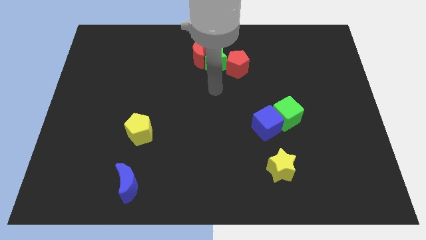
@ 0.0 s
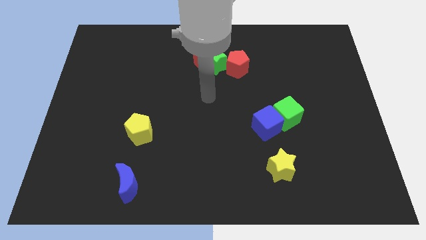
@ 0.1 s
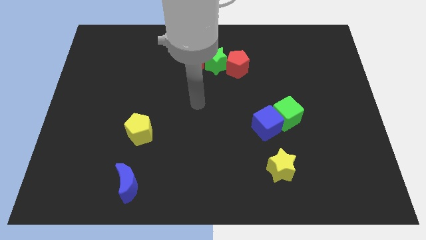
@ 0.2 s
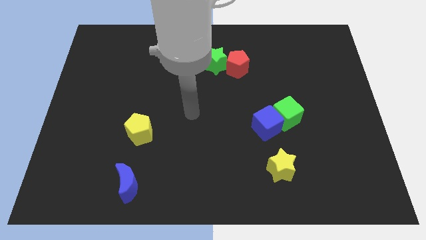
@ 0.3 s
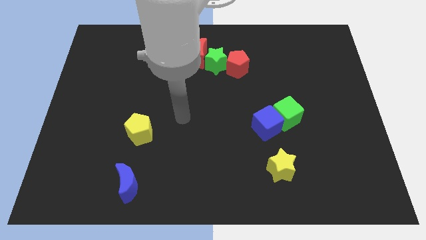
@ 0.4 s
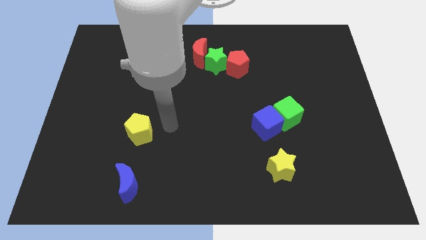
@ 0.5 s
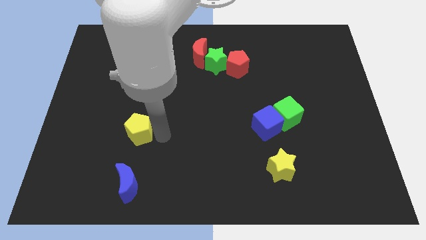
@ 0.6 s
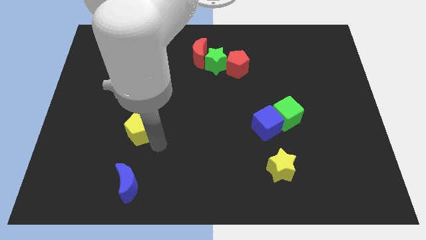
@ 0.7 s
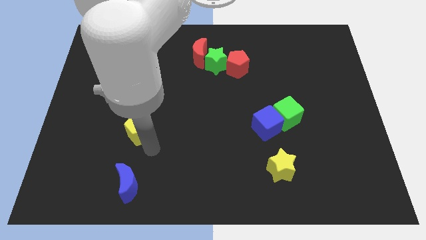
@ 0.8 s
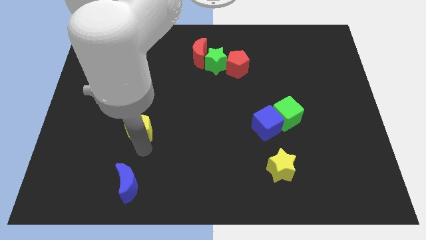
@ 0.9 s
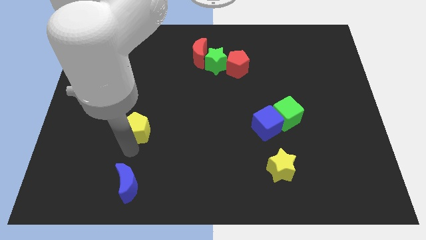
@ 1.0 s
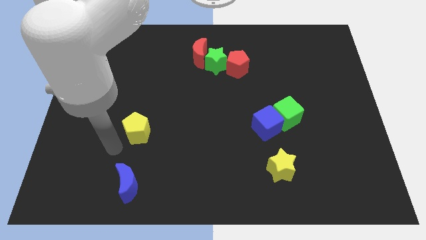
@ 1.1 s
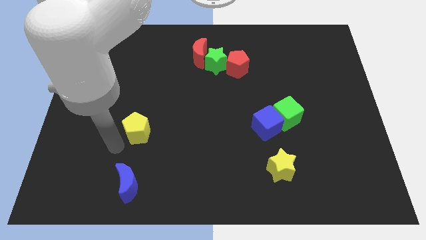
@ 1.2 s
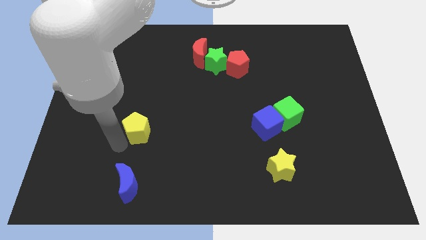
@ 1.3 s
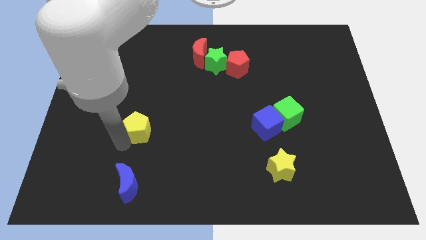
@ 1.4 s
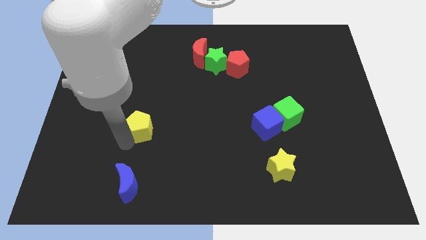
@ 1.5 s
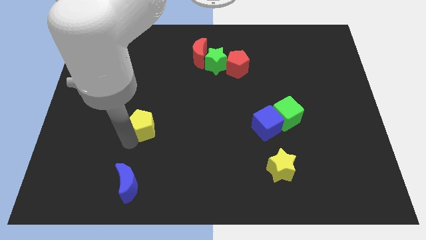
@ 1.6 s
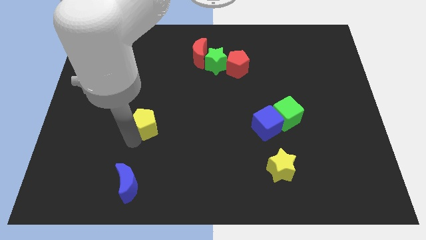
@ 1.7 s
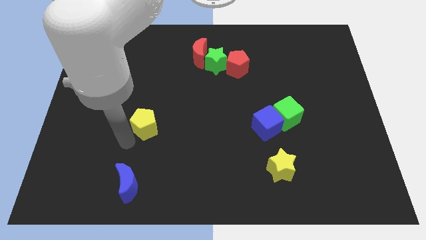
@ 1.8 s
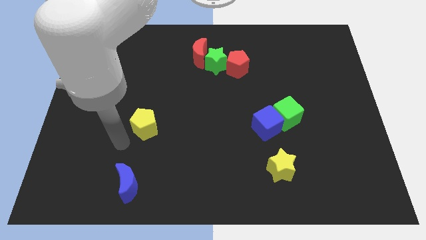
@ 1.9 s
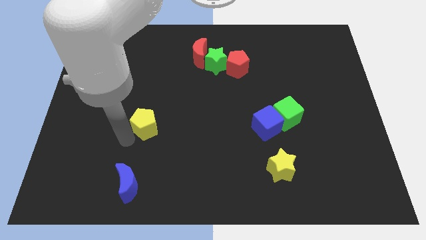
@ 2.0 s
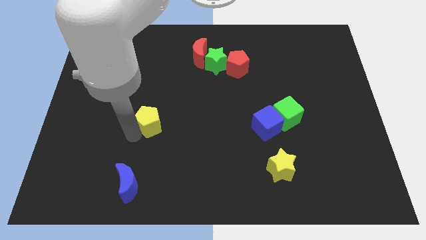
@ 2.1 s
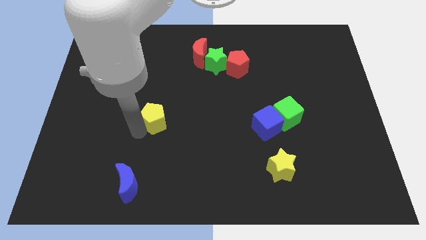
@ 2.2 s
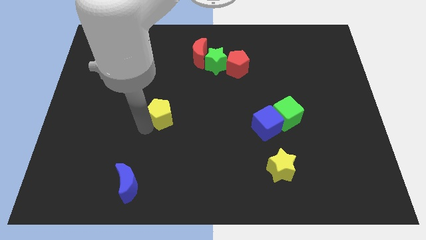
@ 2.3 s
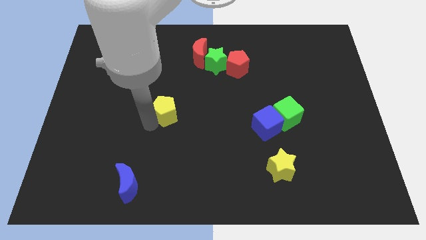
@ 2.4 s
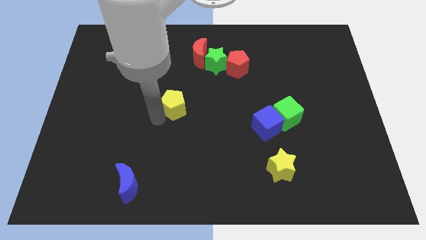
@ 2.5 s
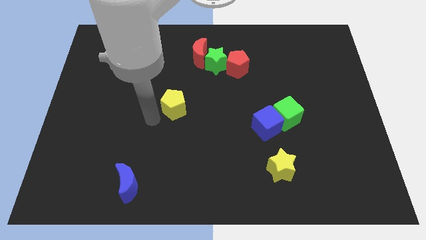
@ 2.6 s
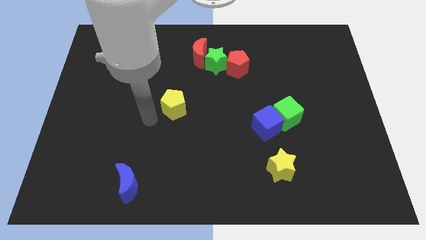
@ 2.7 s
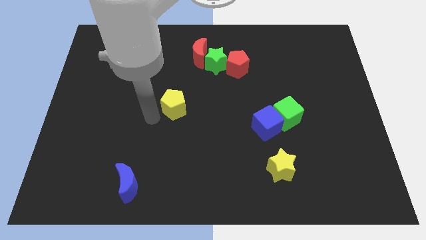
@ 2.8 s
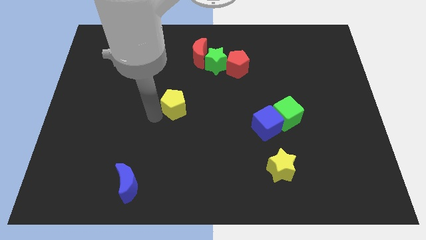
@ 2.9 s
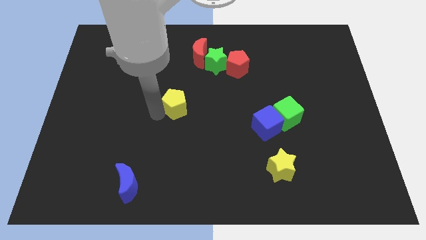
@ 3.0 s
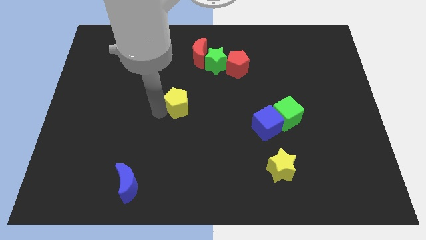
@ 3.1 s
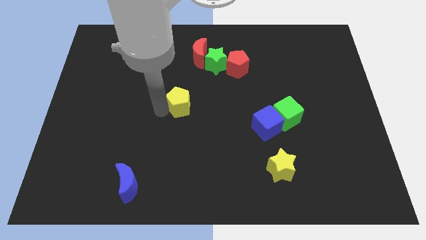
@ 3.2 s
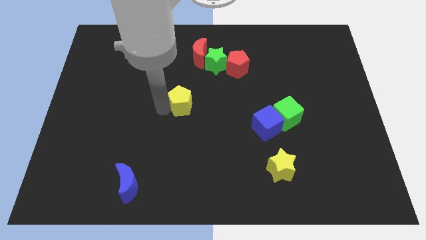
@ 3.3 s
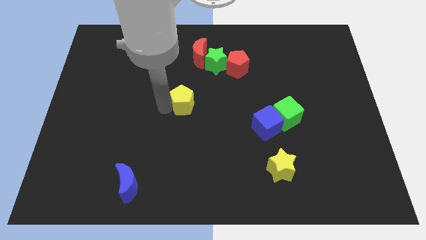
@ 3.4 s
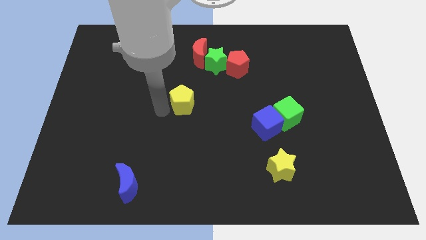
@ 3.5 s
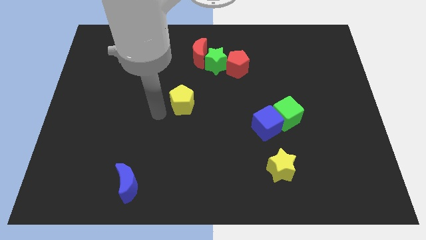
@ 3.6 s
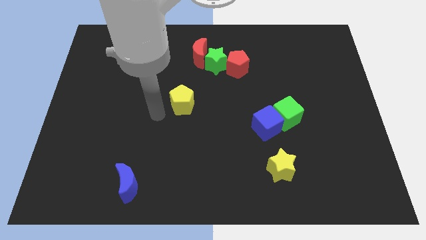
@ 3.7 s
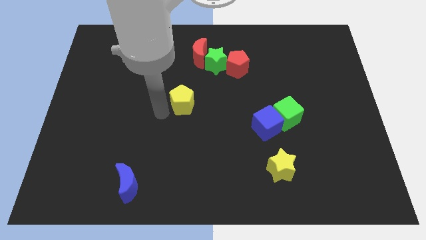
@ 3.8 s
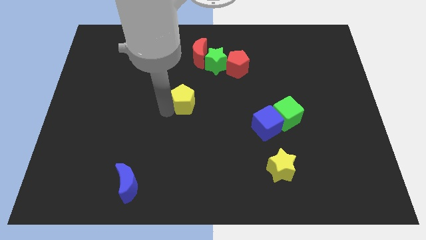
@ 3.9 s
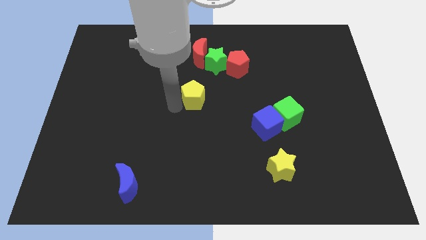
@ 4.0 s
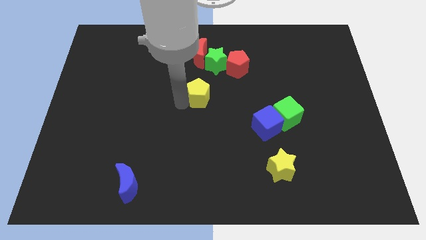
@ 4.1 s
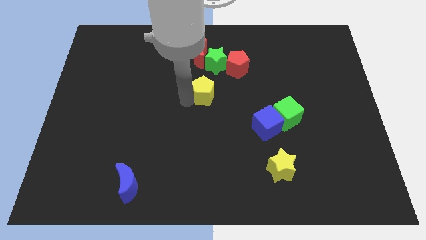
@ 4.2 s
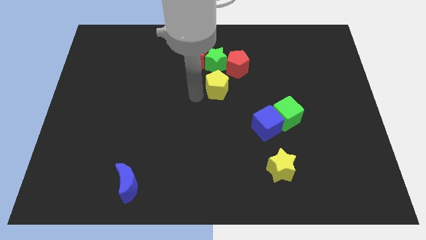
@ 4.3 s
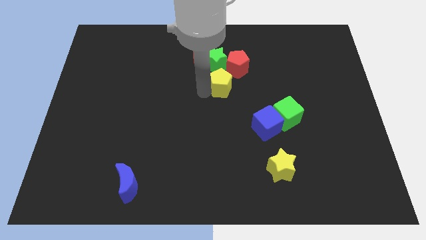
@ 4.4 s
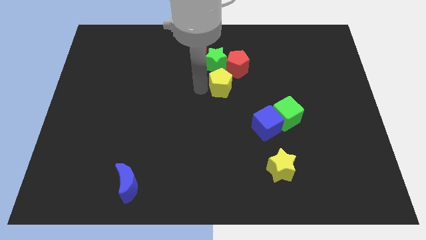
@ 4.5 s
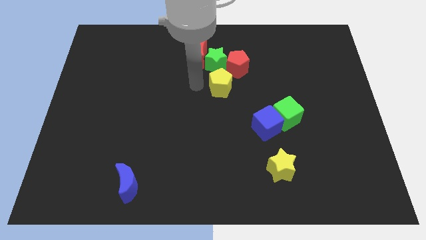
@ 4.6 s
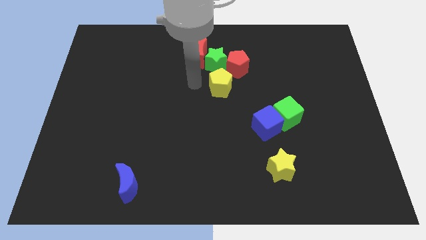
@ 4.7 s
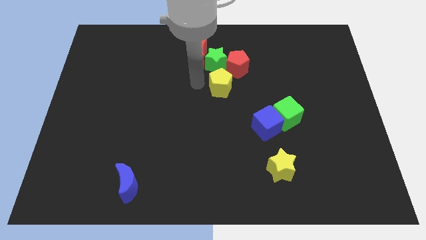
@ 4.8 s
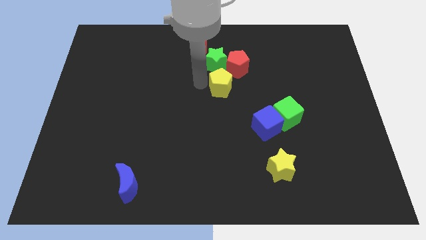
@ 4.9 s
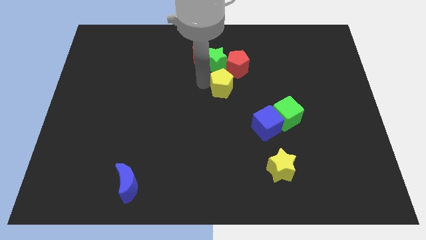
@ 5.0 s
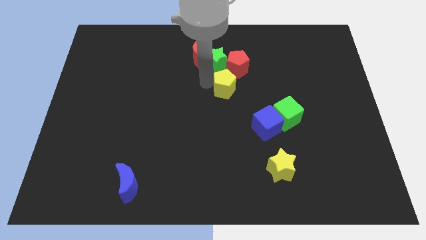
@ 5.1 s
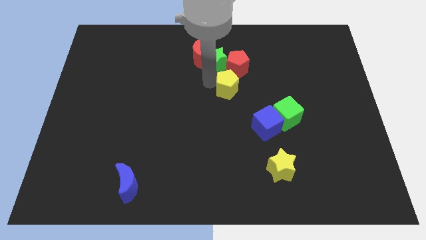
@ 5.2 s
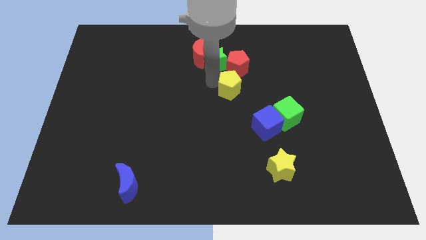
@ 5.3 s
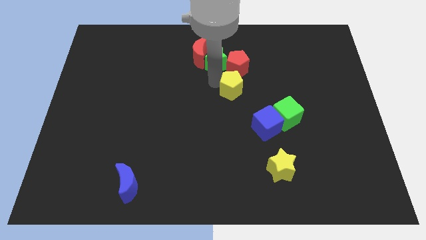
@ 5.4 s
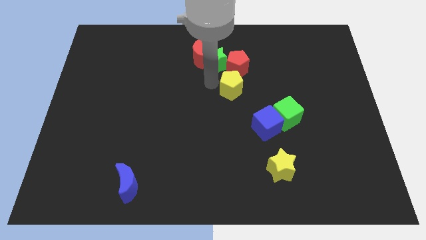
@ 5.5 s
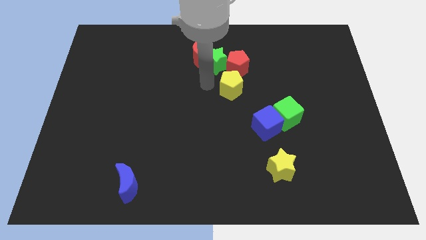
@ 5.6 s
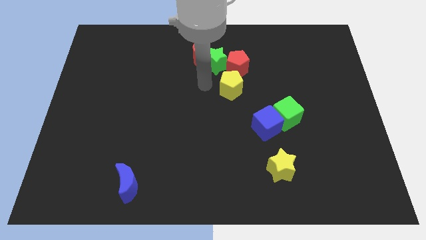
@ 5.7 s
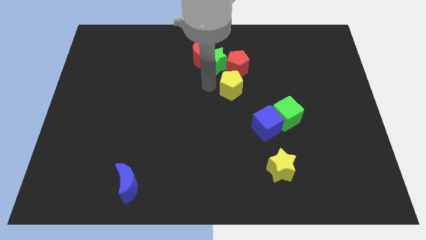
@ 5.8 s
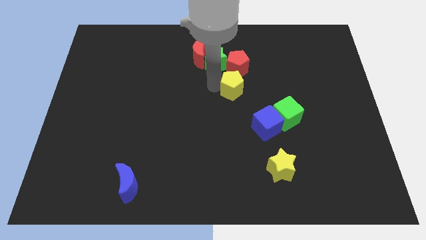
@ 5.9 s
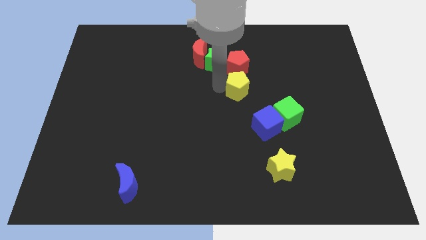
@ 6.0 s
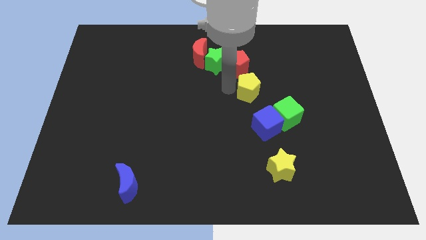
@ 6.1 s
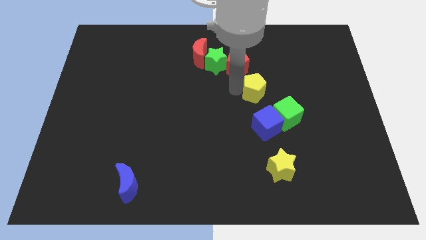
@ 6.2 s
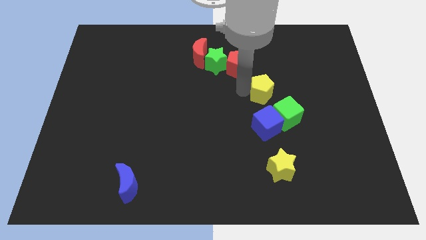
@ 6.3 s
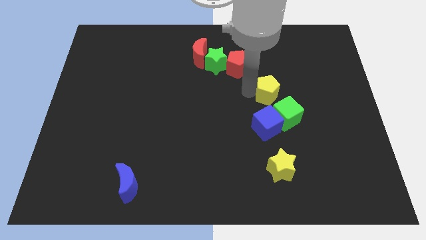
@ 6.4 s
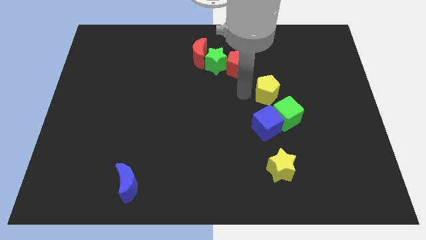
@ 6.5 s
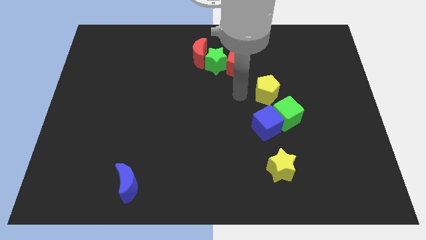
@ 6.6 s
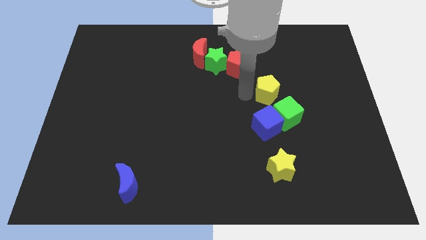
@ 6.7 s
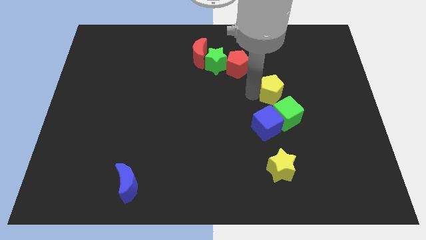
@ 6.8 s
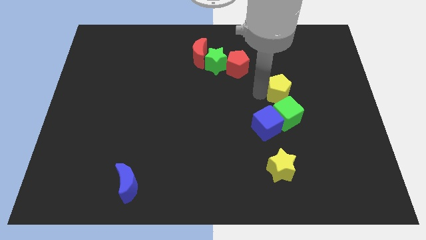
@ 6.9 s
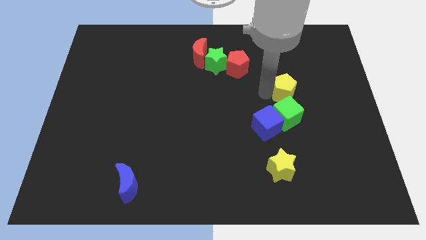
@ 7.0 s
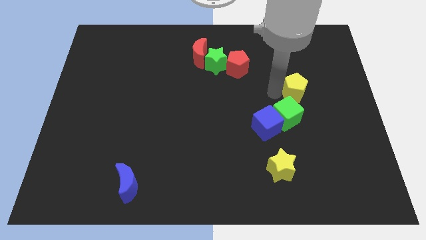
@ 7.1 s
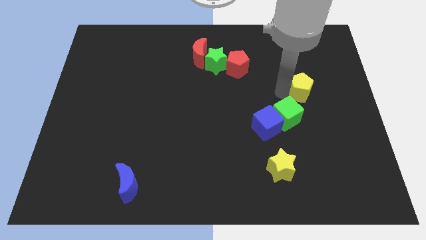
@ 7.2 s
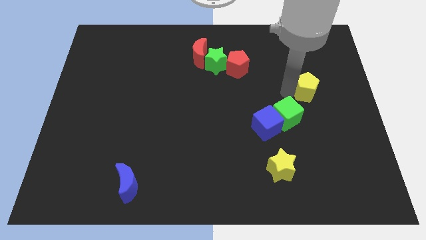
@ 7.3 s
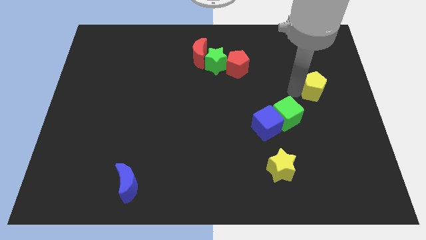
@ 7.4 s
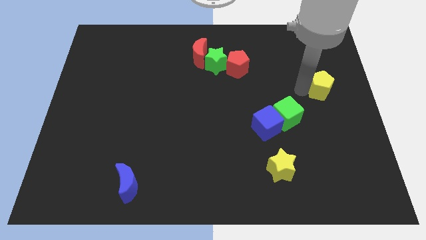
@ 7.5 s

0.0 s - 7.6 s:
push the yellow pentagon to the right side

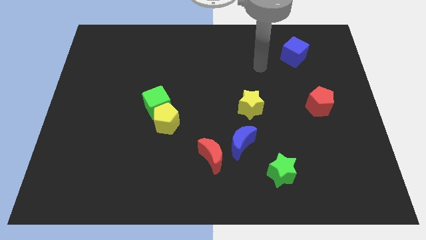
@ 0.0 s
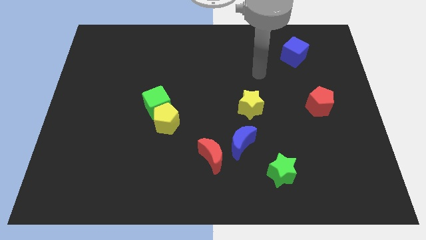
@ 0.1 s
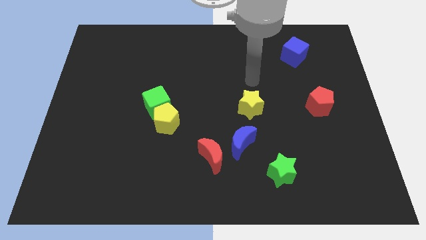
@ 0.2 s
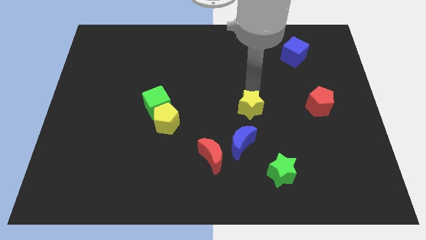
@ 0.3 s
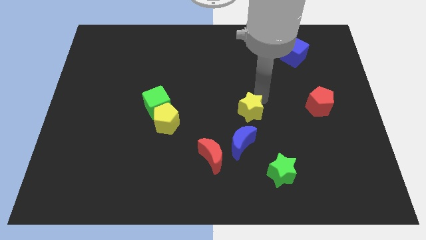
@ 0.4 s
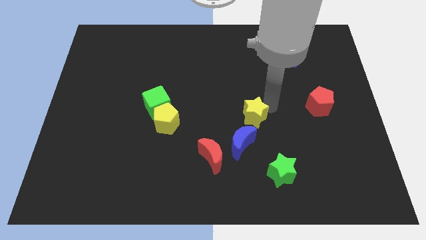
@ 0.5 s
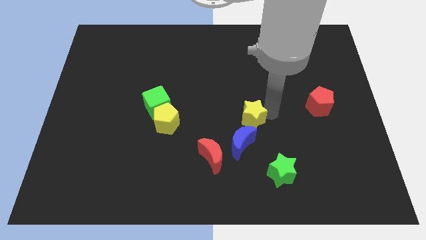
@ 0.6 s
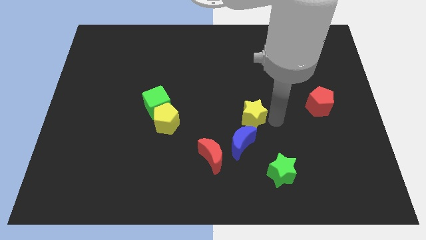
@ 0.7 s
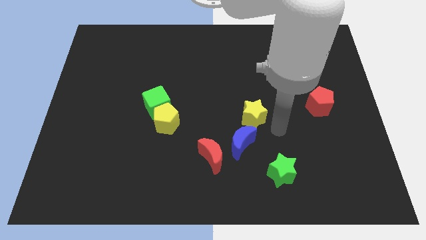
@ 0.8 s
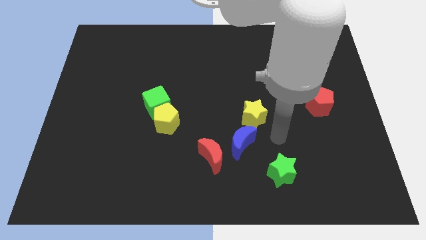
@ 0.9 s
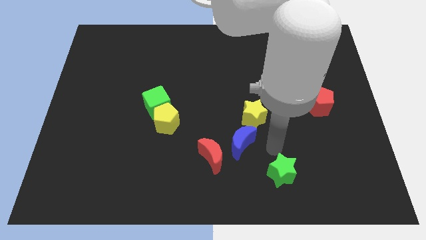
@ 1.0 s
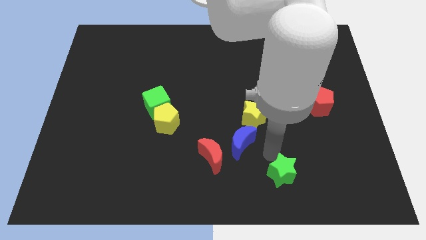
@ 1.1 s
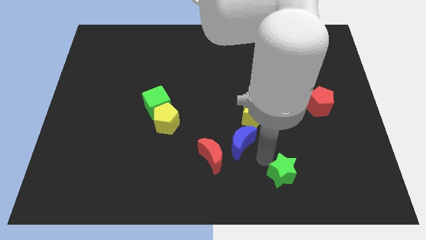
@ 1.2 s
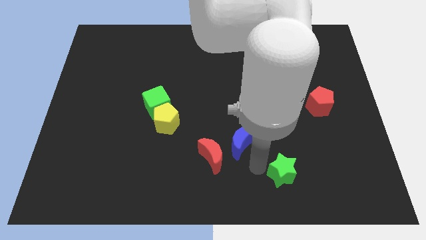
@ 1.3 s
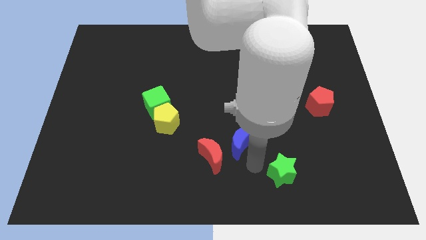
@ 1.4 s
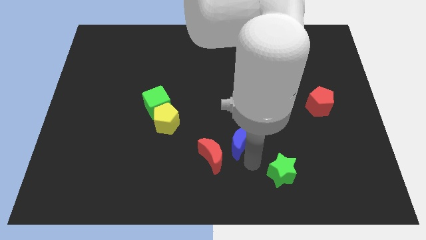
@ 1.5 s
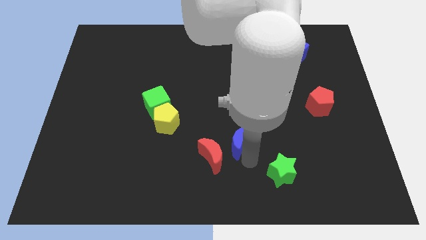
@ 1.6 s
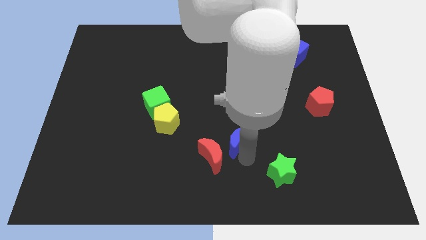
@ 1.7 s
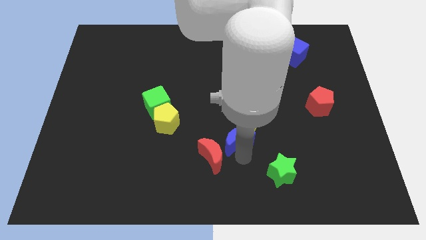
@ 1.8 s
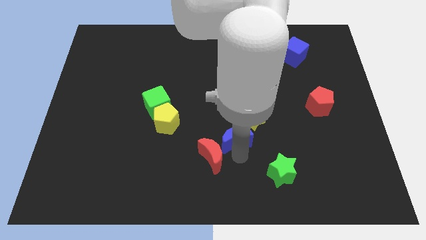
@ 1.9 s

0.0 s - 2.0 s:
put the blue moon to the center
